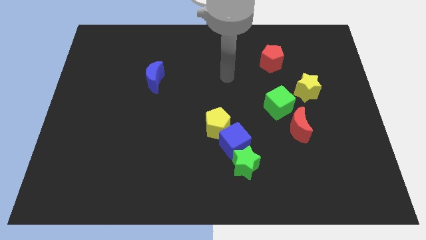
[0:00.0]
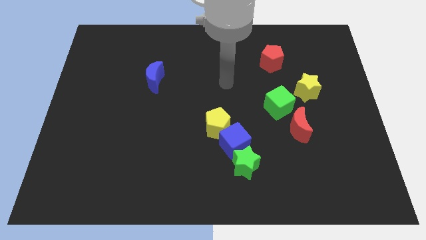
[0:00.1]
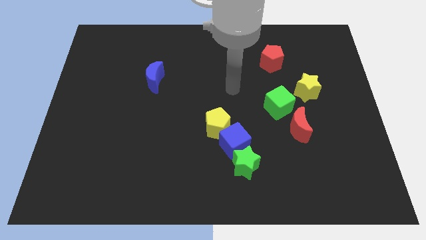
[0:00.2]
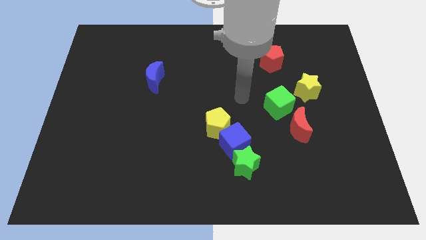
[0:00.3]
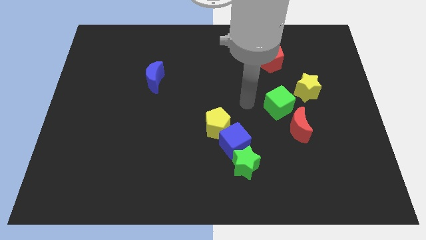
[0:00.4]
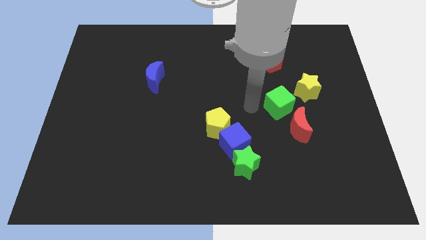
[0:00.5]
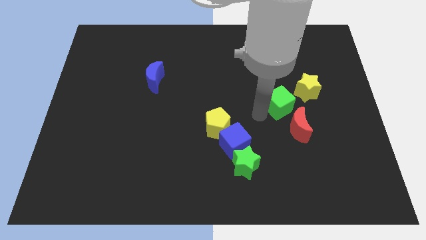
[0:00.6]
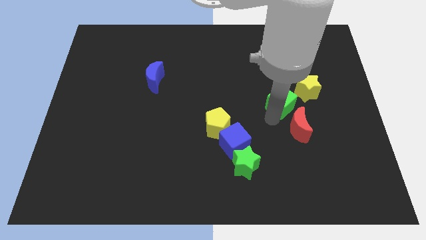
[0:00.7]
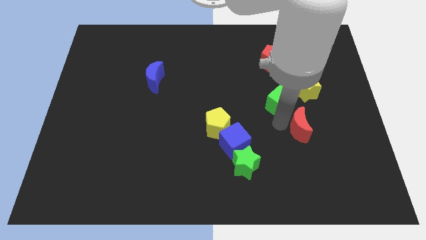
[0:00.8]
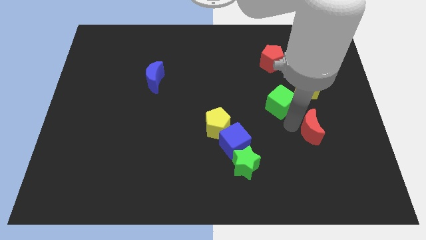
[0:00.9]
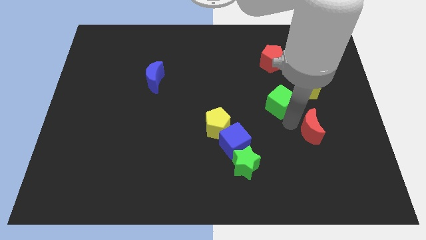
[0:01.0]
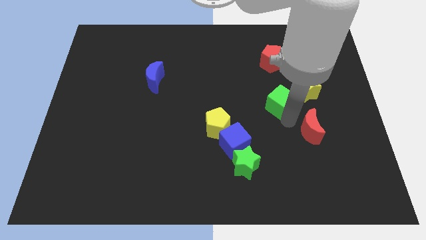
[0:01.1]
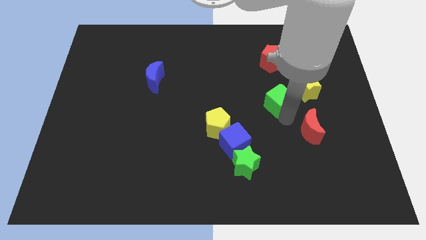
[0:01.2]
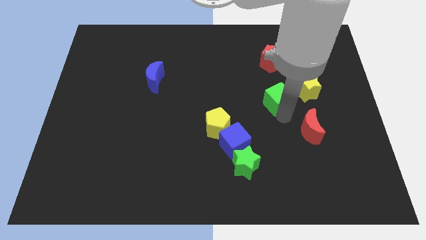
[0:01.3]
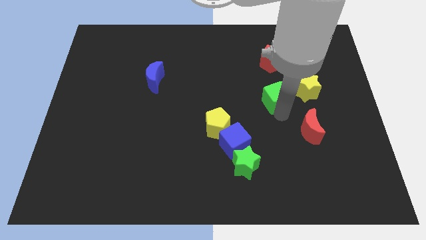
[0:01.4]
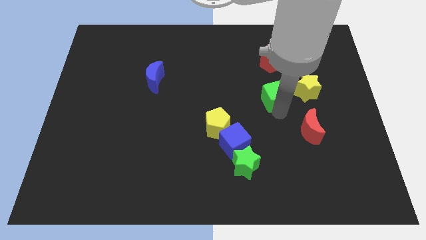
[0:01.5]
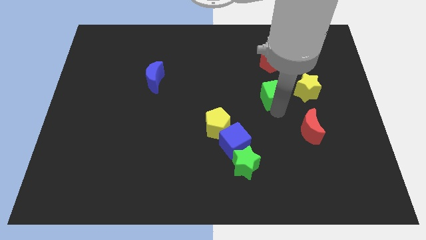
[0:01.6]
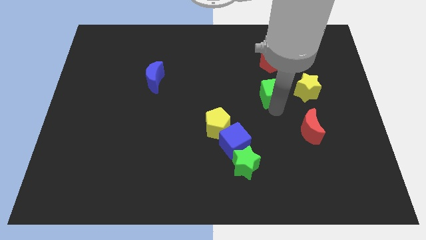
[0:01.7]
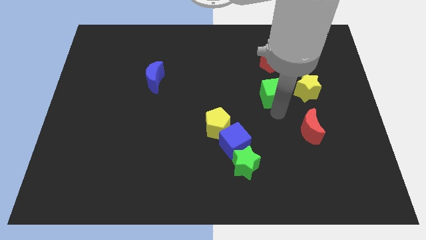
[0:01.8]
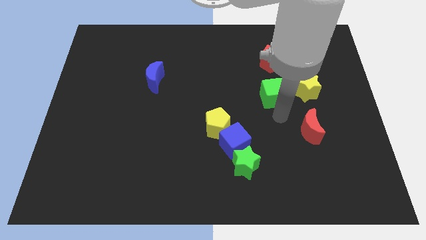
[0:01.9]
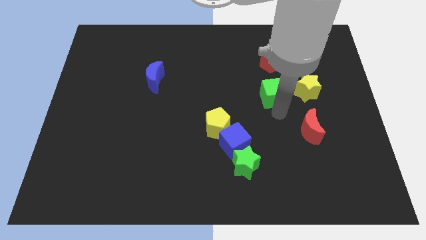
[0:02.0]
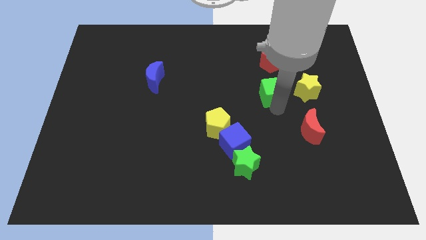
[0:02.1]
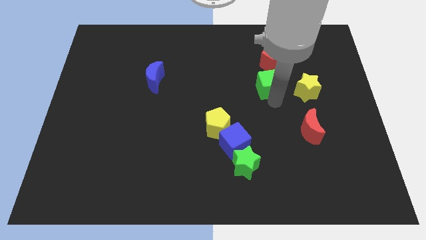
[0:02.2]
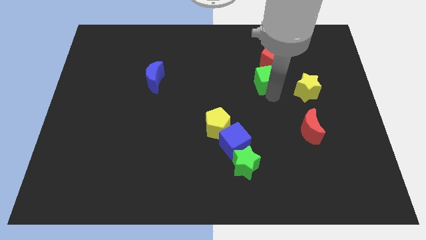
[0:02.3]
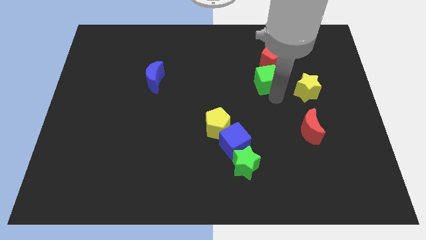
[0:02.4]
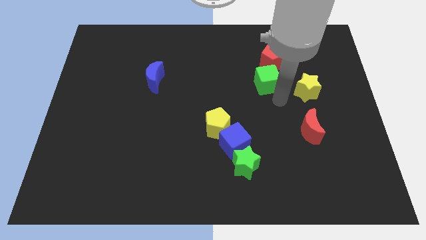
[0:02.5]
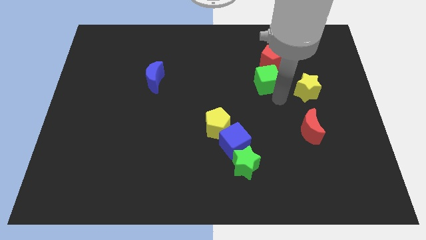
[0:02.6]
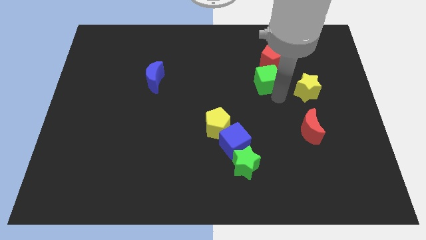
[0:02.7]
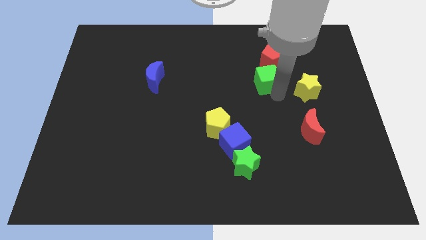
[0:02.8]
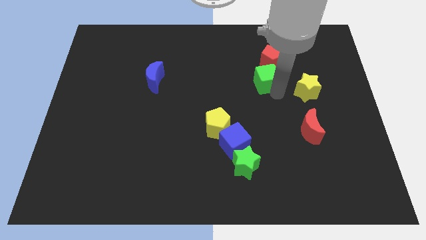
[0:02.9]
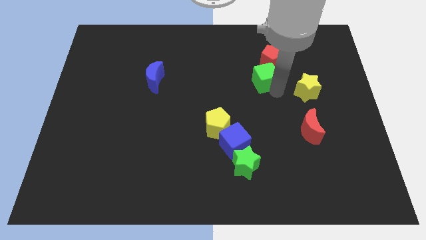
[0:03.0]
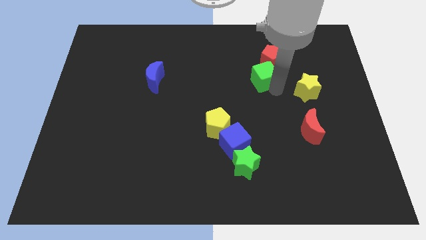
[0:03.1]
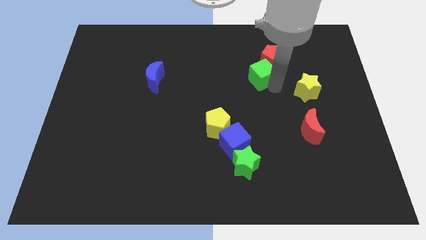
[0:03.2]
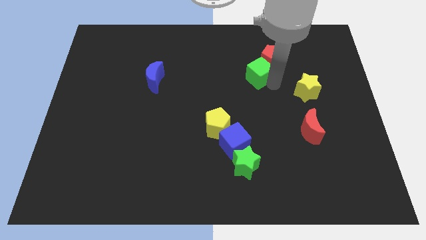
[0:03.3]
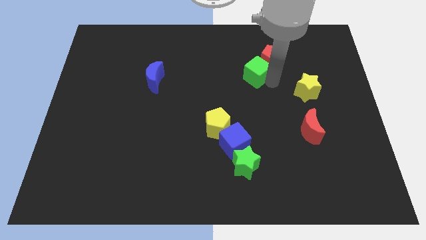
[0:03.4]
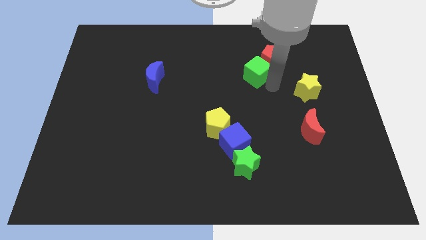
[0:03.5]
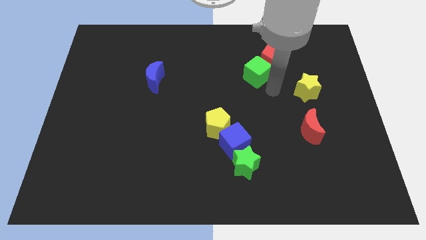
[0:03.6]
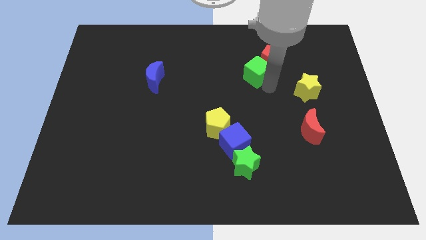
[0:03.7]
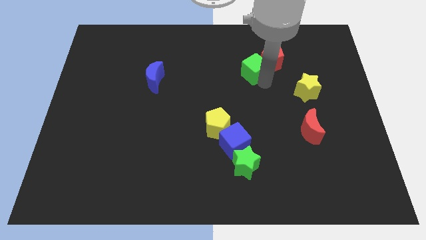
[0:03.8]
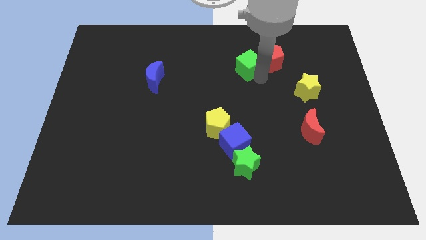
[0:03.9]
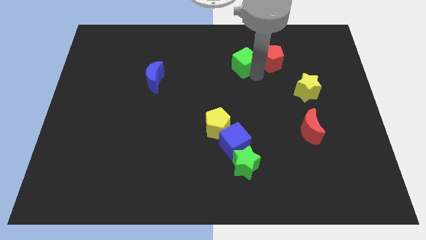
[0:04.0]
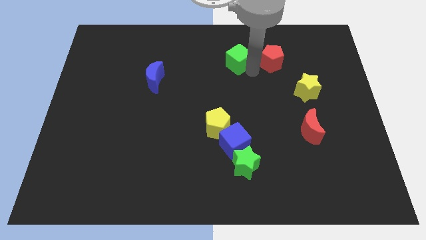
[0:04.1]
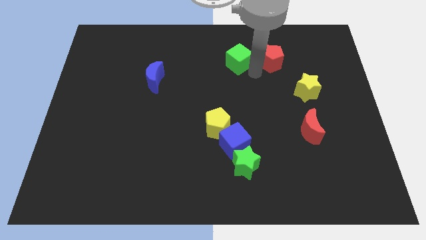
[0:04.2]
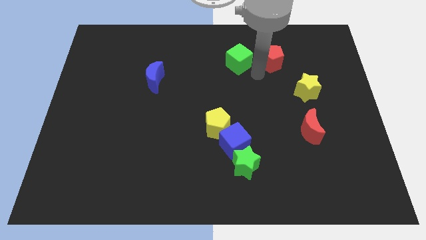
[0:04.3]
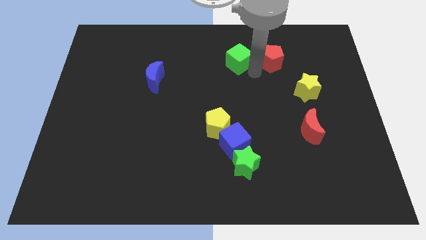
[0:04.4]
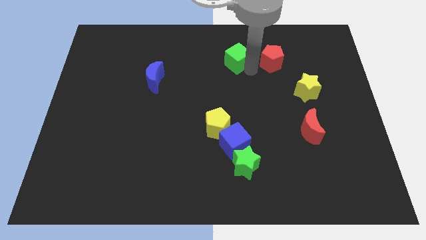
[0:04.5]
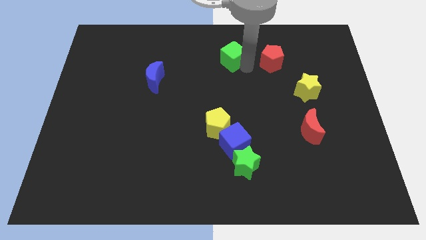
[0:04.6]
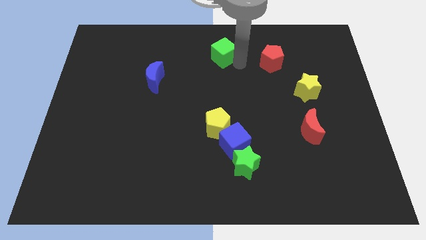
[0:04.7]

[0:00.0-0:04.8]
put the green cube to the top side

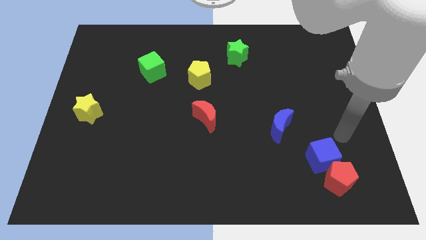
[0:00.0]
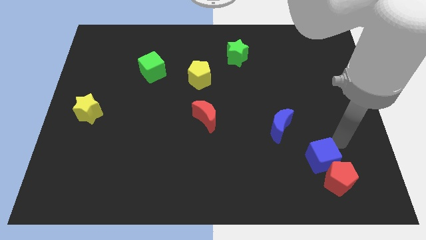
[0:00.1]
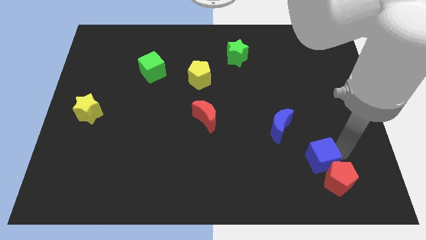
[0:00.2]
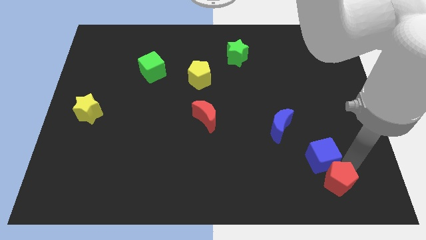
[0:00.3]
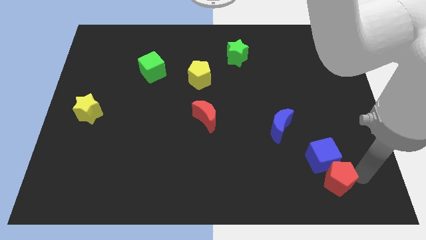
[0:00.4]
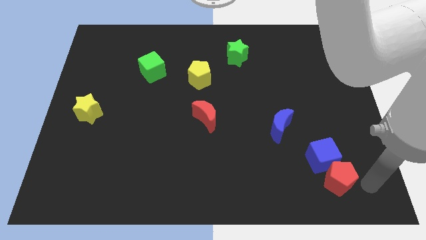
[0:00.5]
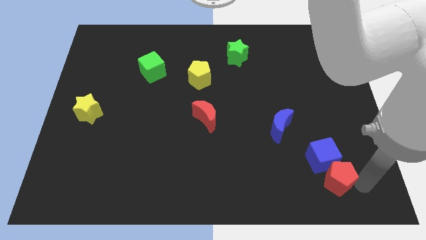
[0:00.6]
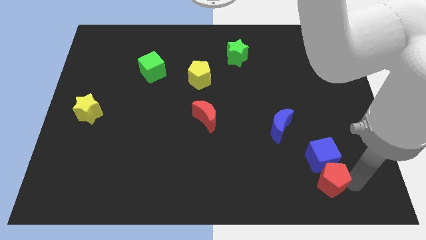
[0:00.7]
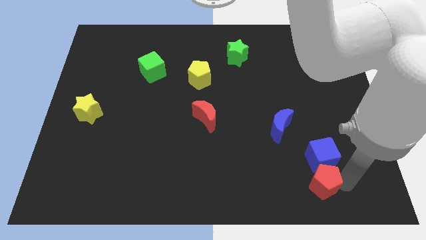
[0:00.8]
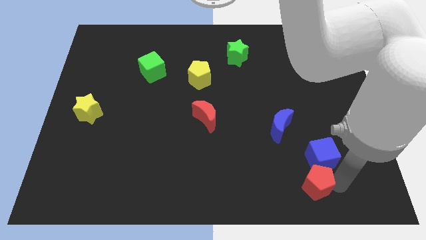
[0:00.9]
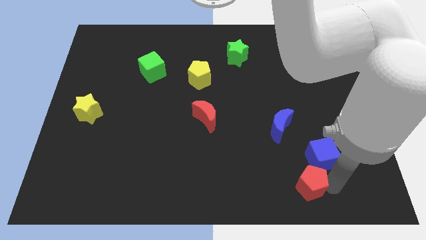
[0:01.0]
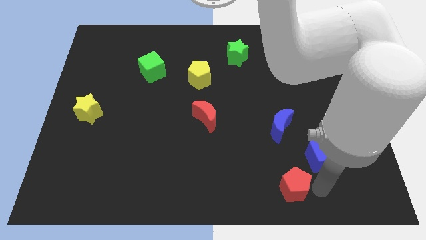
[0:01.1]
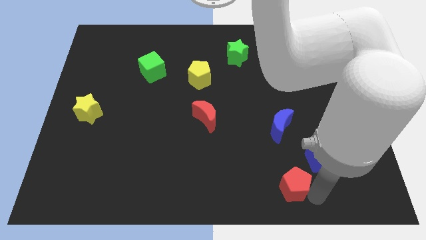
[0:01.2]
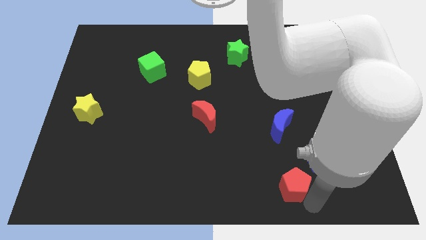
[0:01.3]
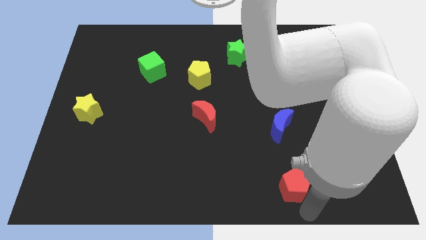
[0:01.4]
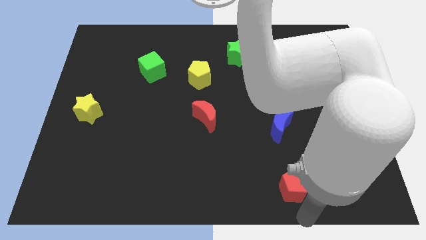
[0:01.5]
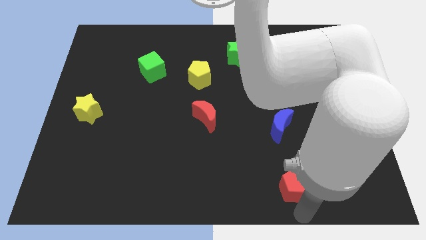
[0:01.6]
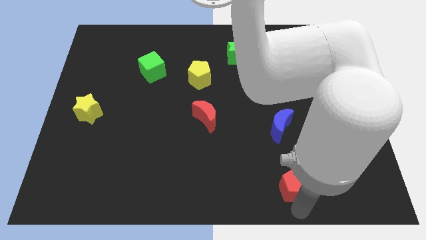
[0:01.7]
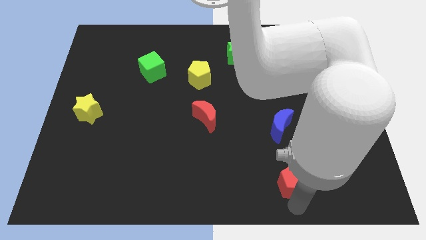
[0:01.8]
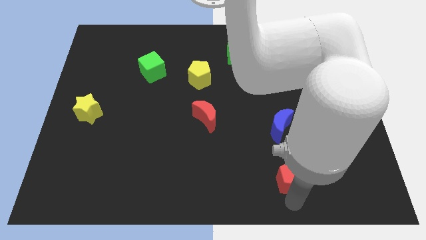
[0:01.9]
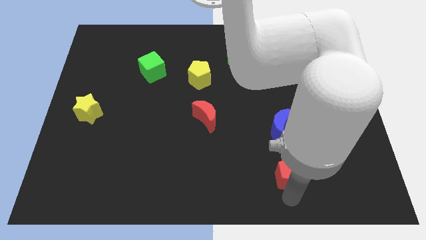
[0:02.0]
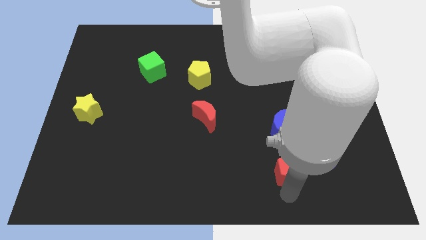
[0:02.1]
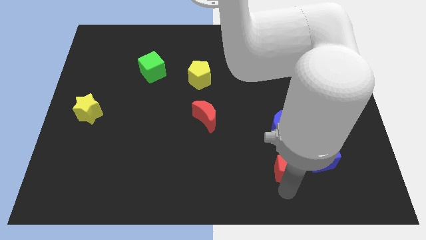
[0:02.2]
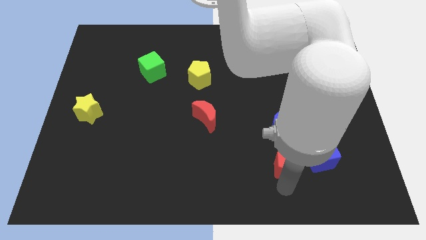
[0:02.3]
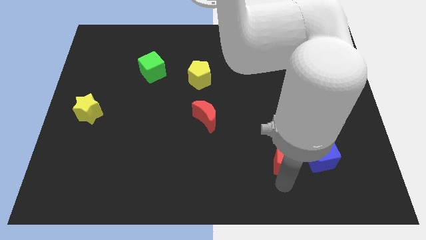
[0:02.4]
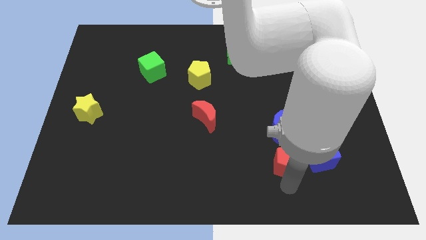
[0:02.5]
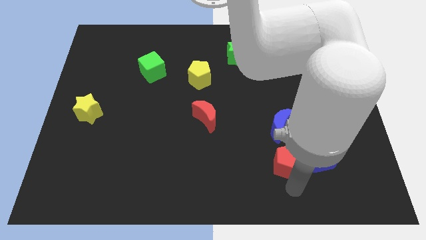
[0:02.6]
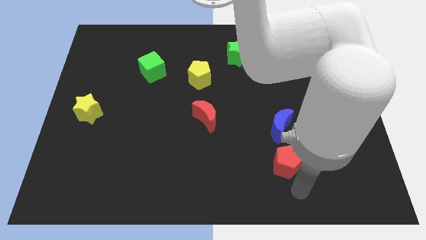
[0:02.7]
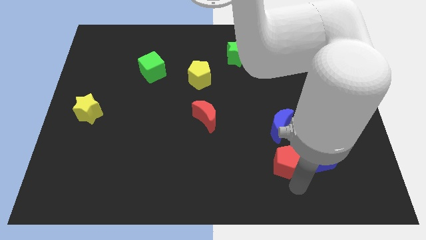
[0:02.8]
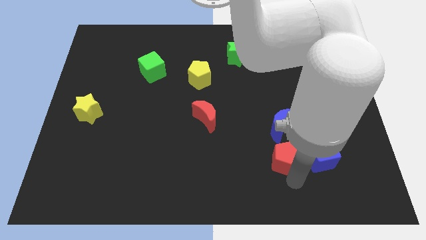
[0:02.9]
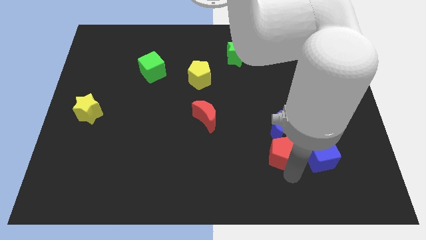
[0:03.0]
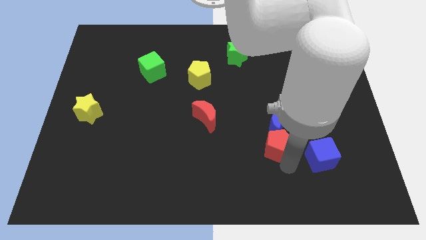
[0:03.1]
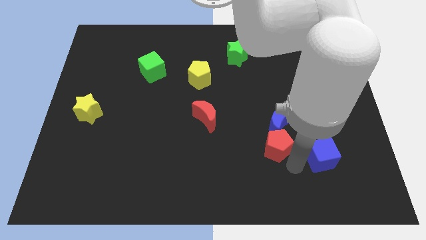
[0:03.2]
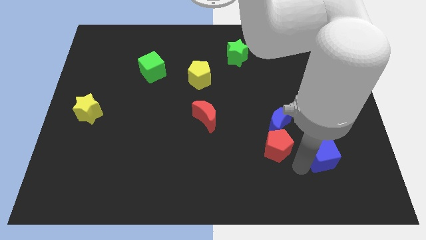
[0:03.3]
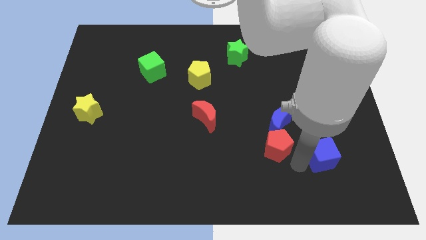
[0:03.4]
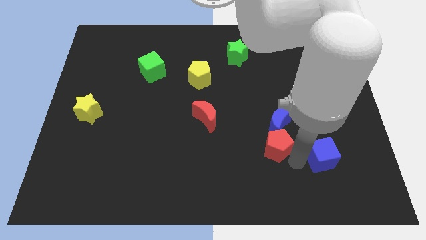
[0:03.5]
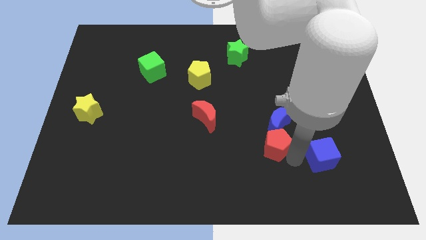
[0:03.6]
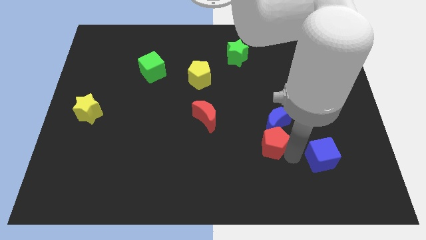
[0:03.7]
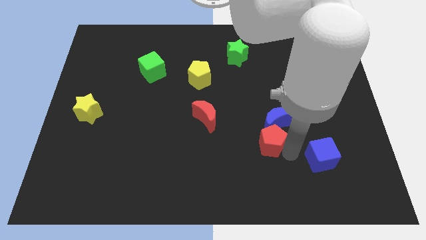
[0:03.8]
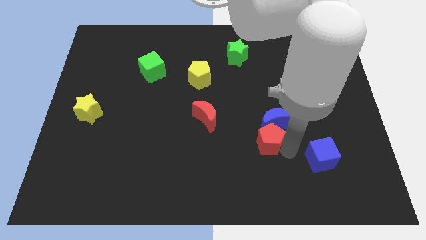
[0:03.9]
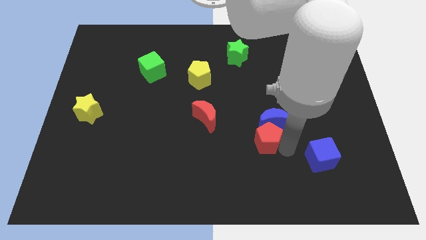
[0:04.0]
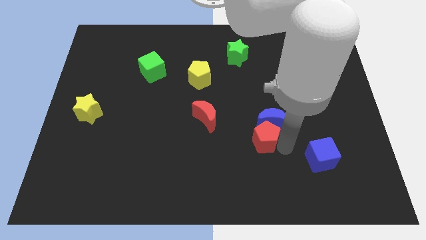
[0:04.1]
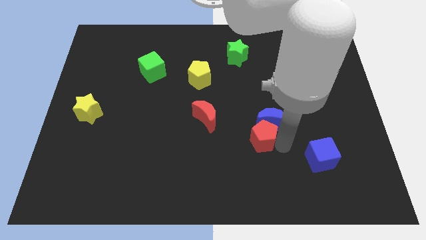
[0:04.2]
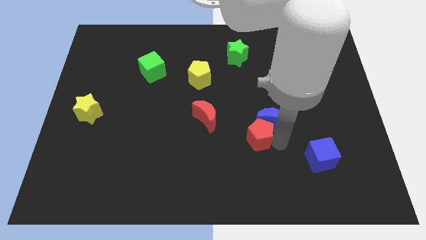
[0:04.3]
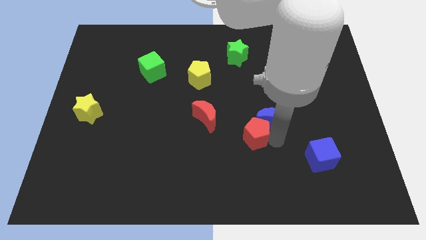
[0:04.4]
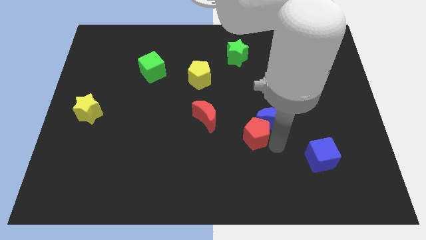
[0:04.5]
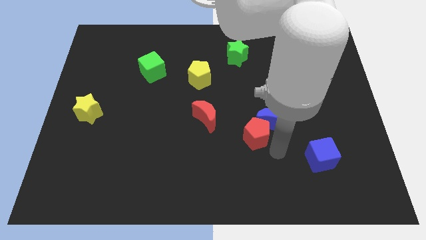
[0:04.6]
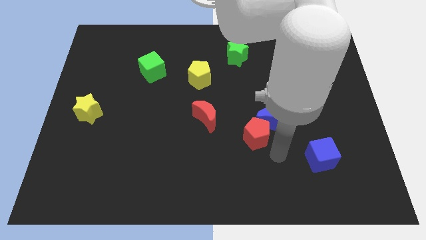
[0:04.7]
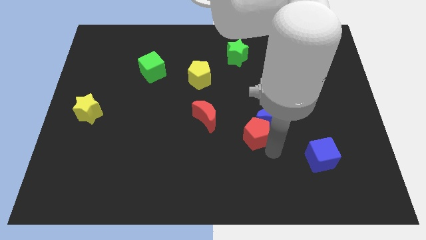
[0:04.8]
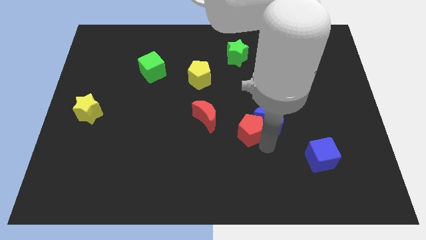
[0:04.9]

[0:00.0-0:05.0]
slide the red pentagon to the center of the board
